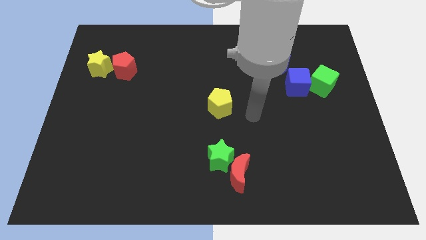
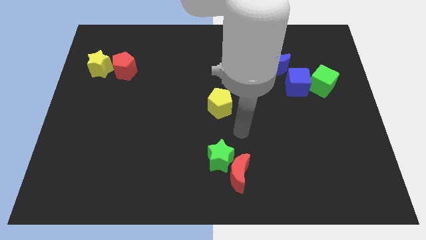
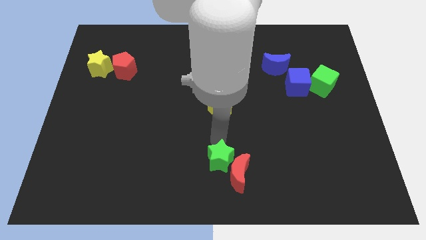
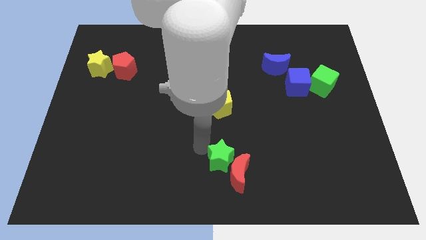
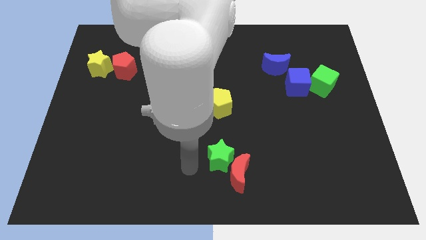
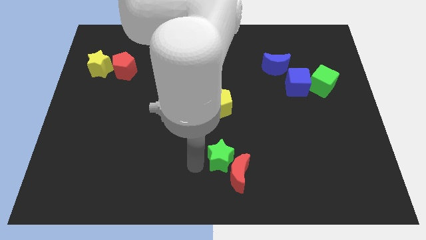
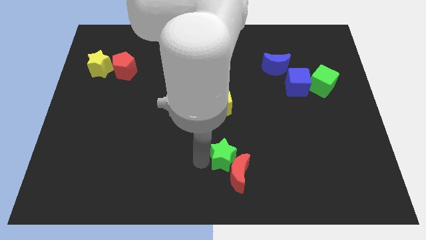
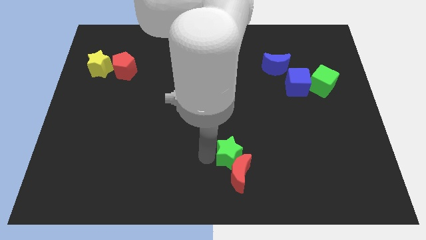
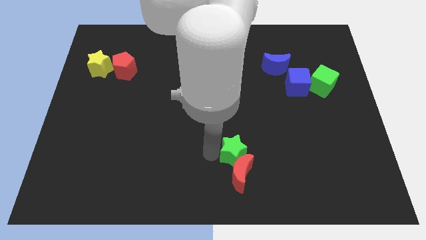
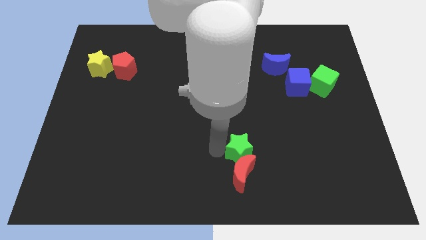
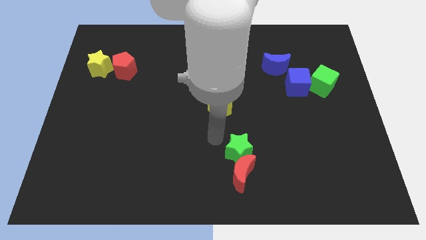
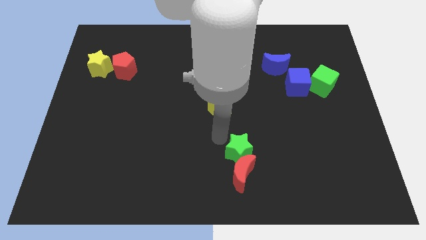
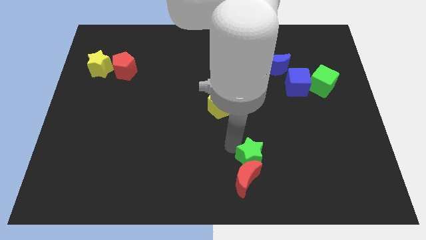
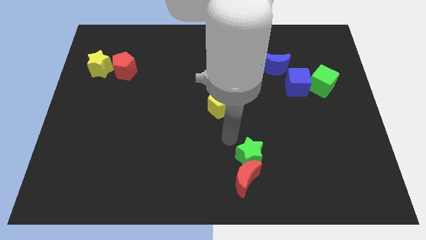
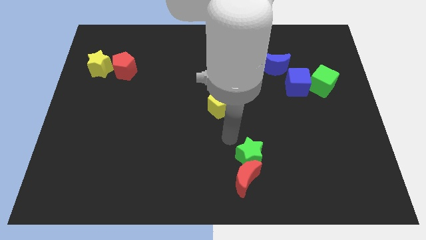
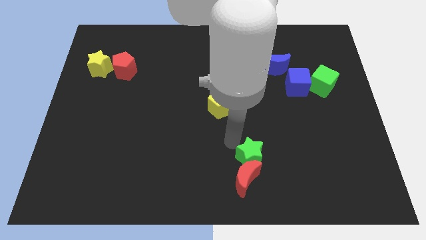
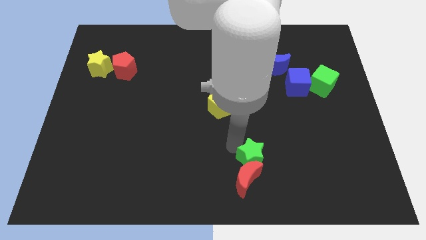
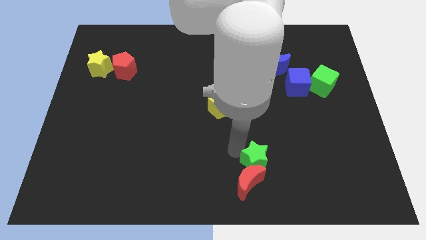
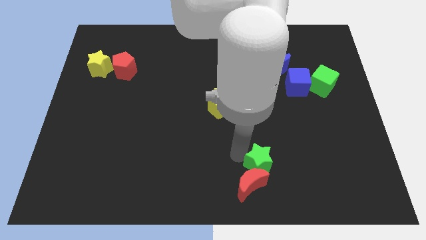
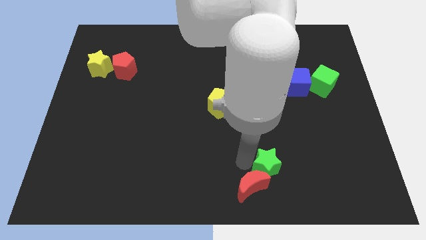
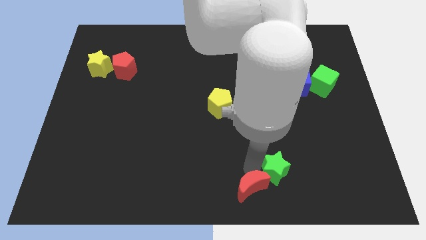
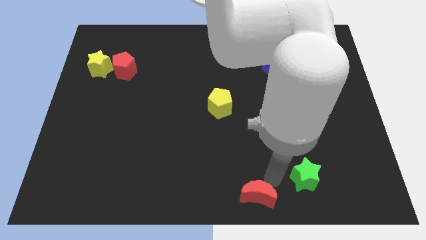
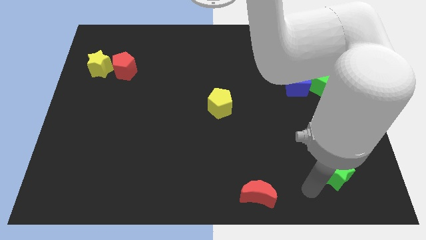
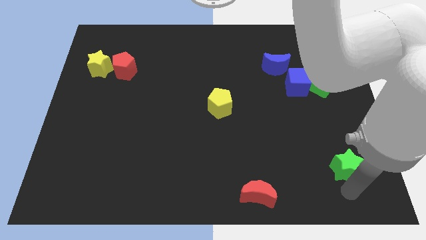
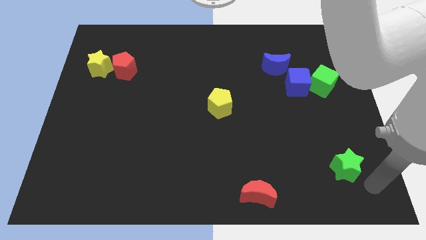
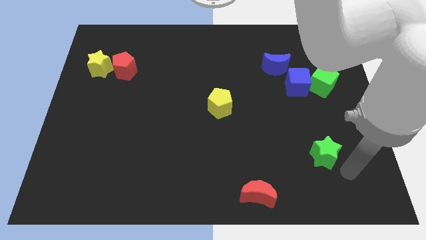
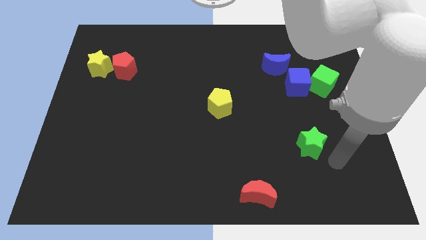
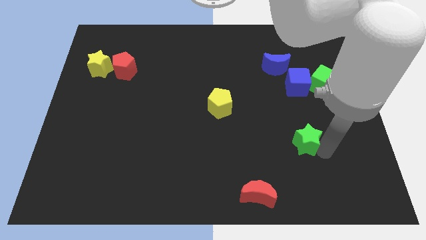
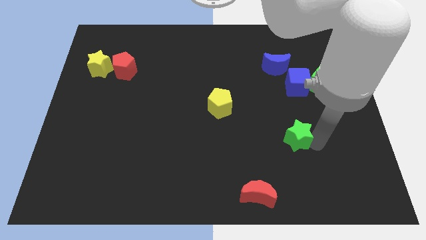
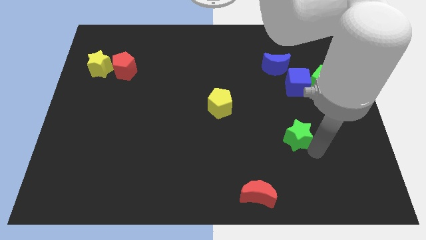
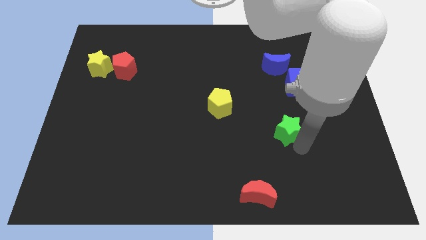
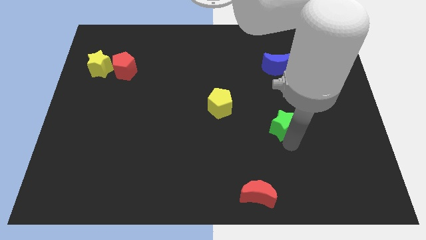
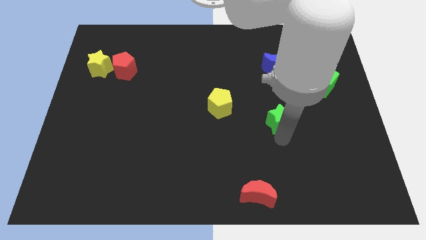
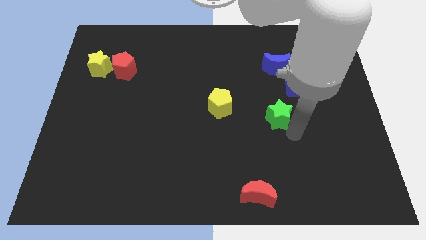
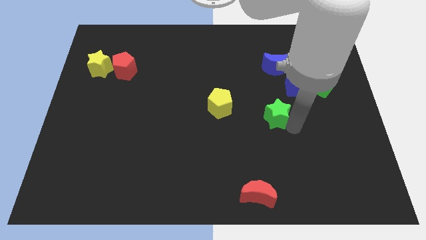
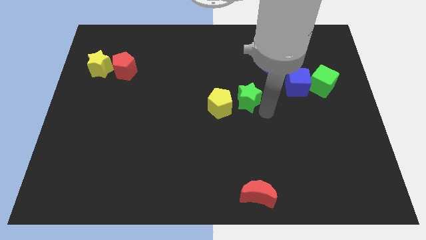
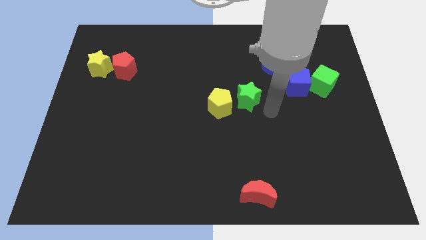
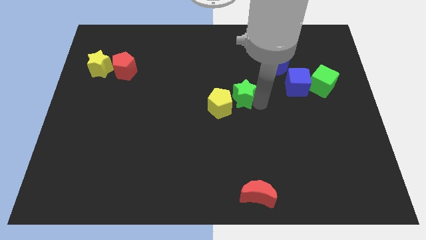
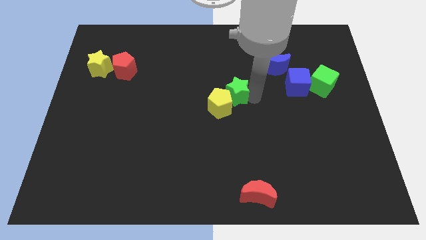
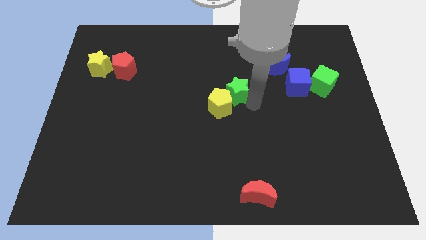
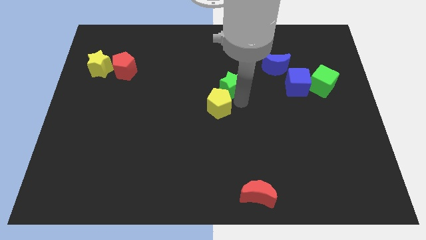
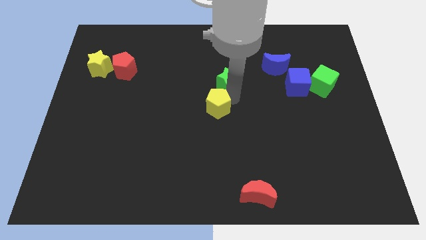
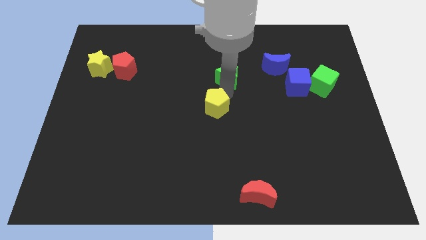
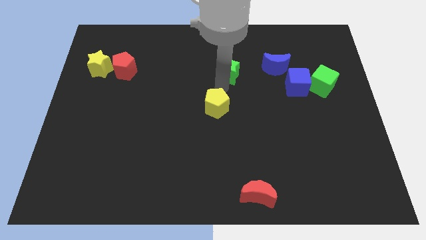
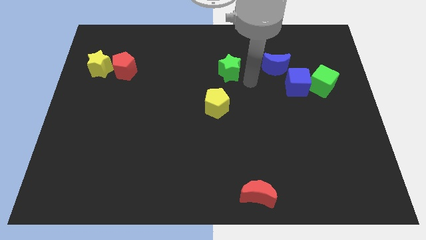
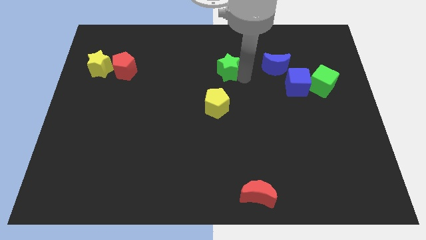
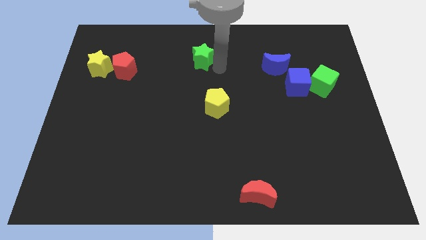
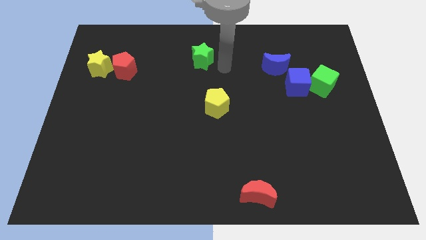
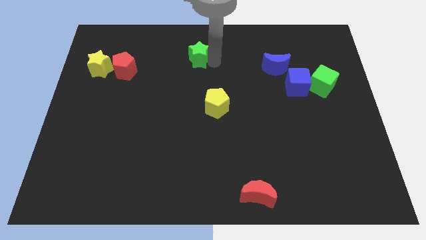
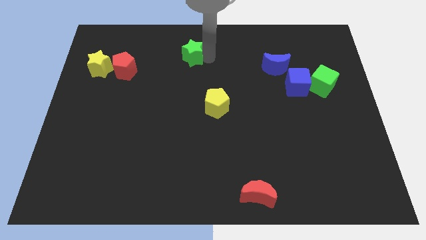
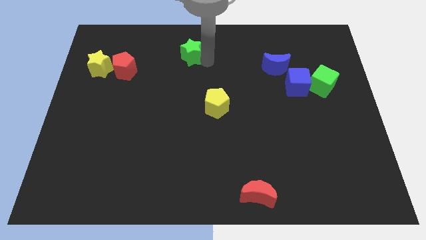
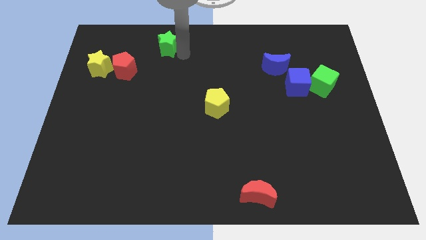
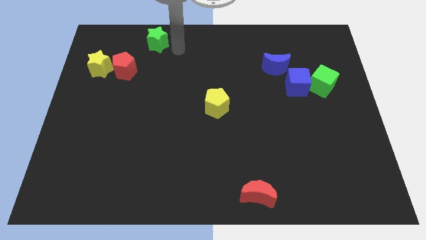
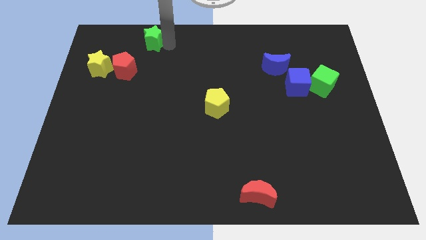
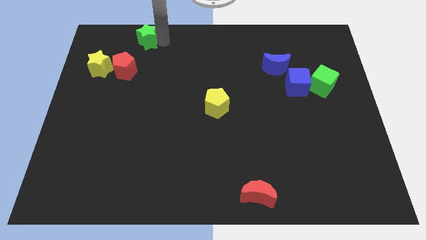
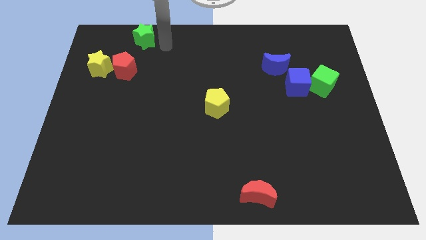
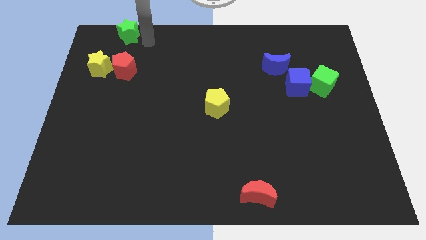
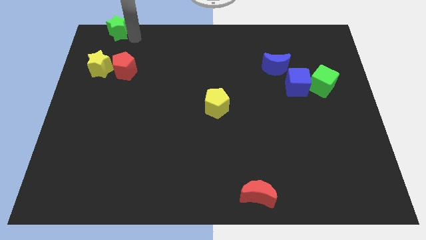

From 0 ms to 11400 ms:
slide the green star to the top left
